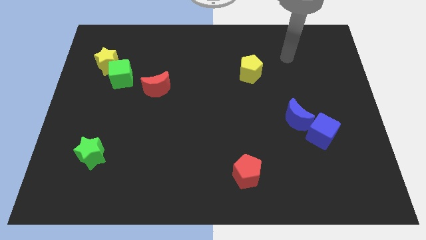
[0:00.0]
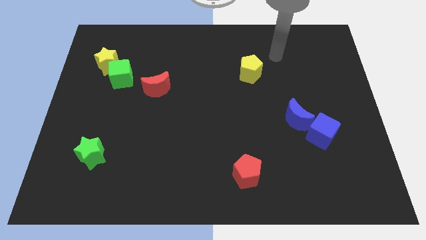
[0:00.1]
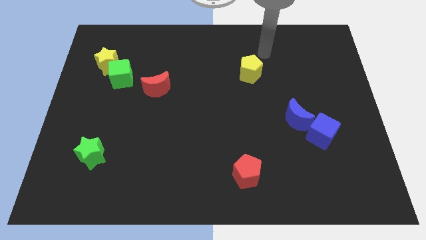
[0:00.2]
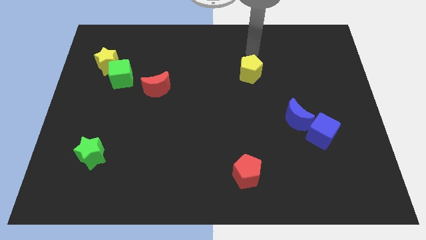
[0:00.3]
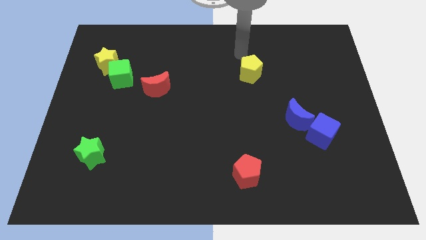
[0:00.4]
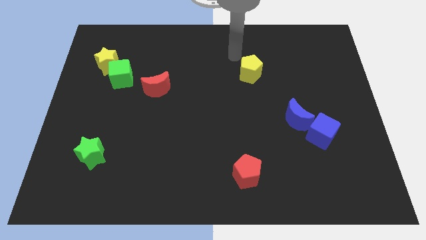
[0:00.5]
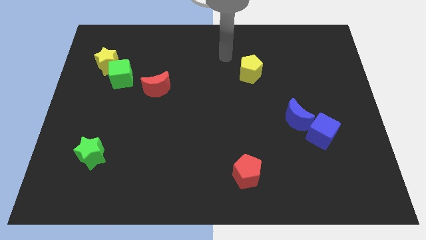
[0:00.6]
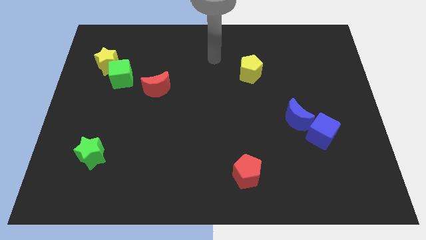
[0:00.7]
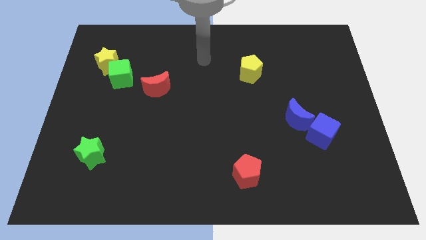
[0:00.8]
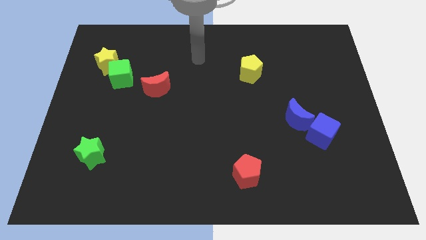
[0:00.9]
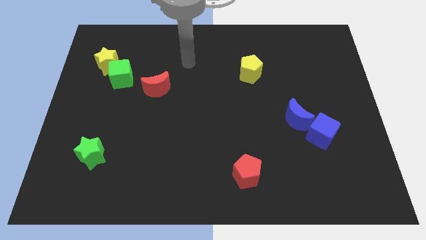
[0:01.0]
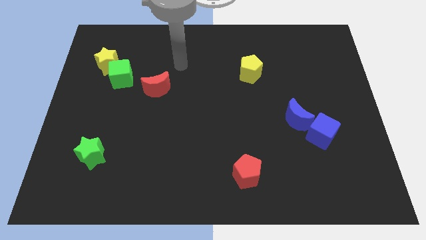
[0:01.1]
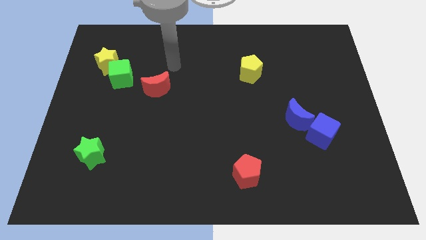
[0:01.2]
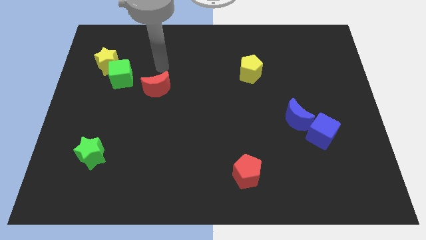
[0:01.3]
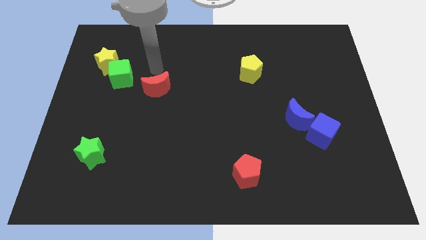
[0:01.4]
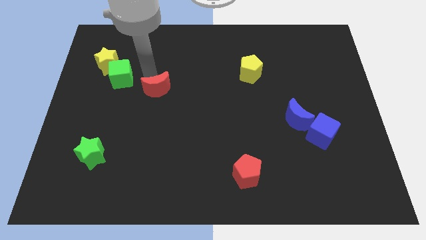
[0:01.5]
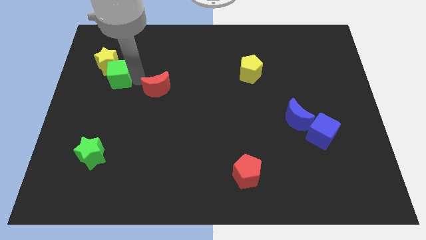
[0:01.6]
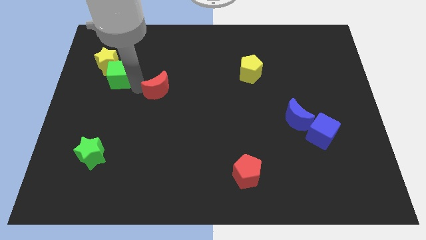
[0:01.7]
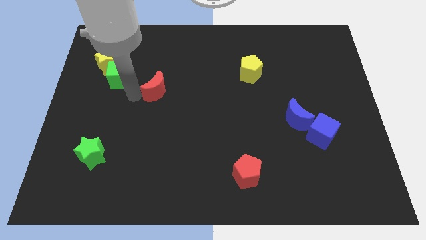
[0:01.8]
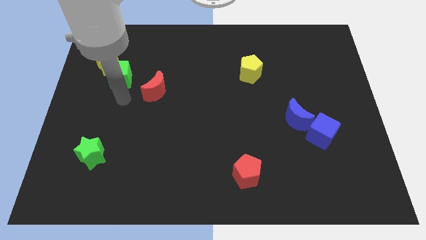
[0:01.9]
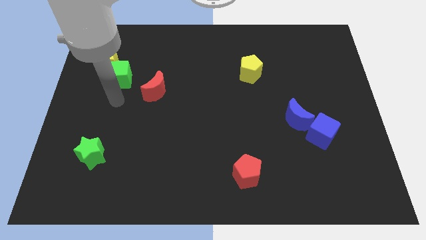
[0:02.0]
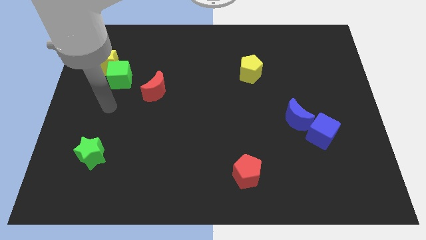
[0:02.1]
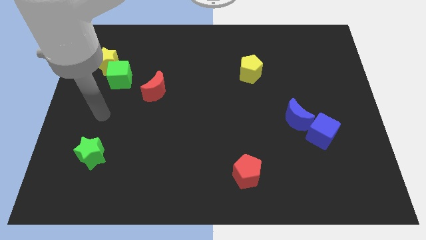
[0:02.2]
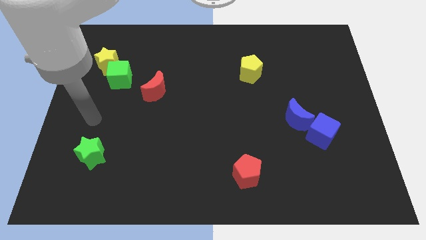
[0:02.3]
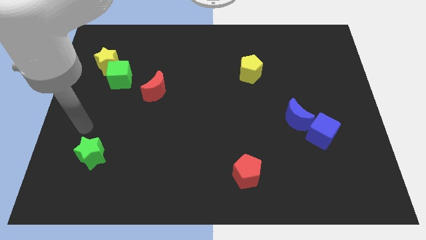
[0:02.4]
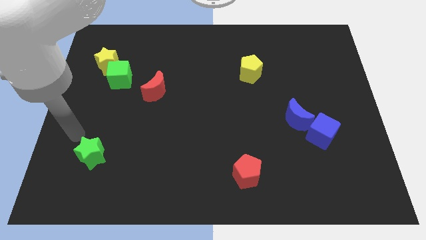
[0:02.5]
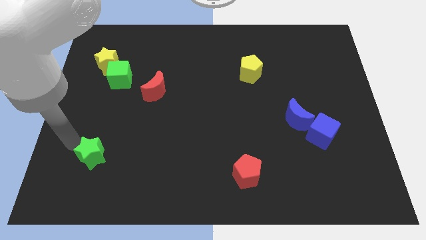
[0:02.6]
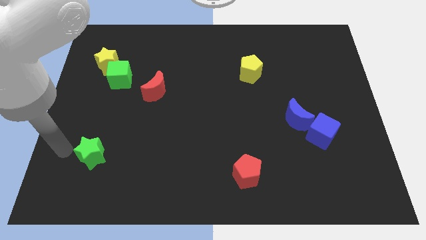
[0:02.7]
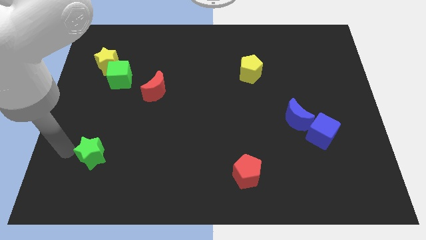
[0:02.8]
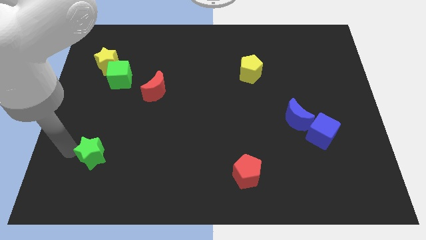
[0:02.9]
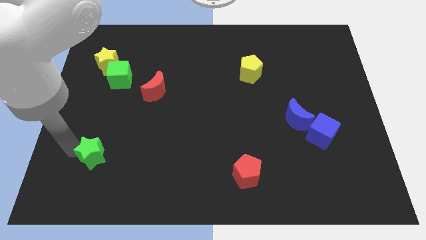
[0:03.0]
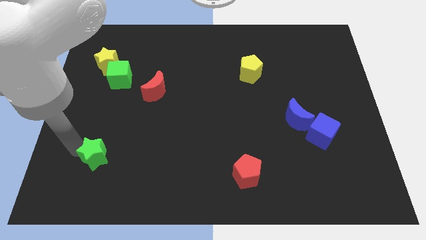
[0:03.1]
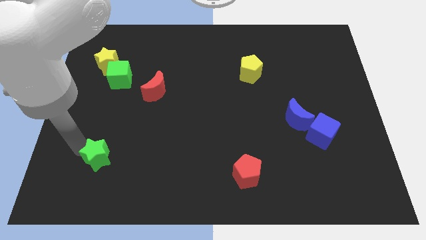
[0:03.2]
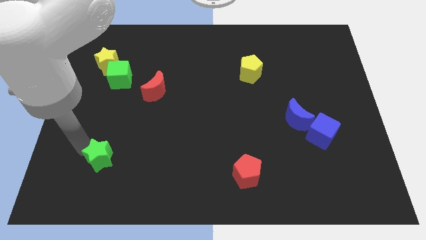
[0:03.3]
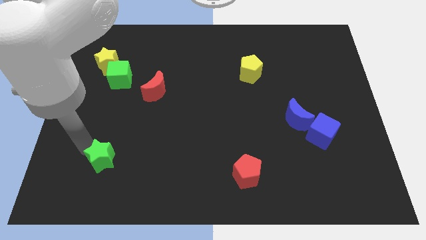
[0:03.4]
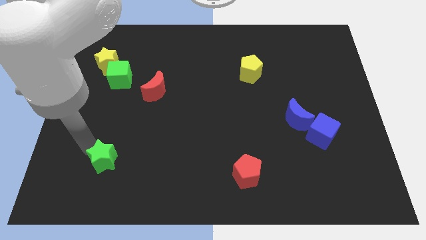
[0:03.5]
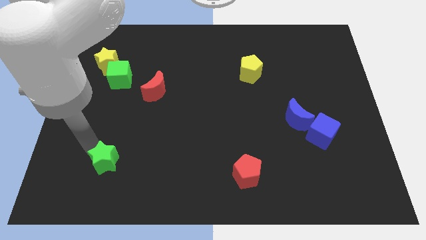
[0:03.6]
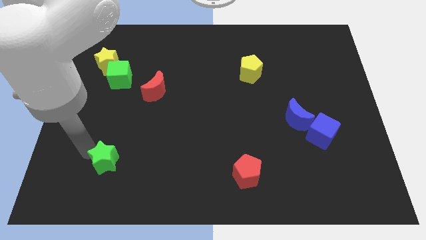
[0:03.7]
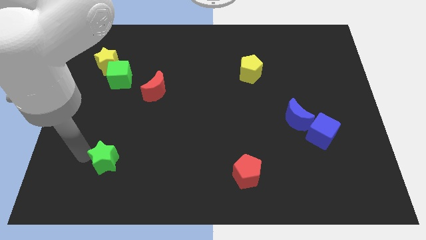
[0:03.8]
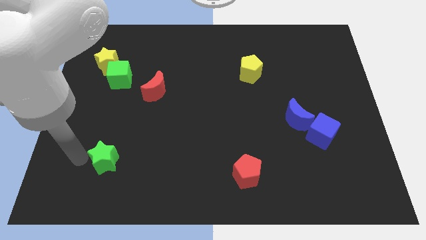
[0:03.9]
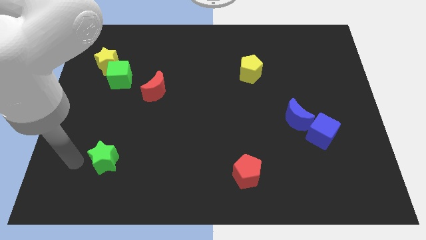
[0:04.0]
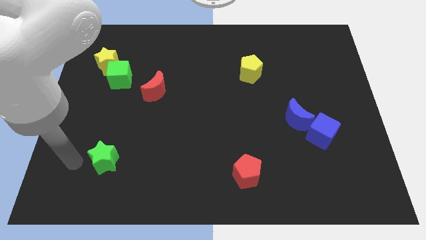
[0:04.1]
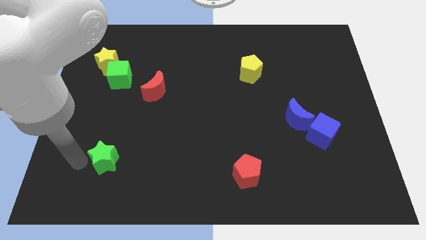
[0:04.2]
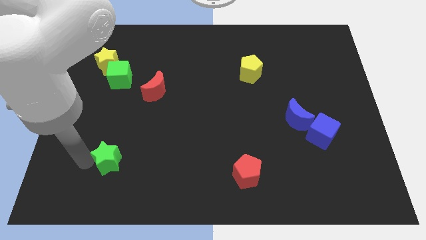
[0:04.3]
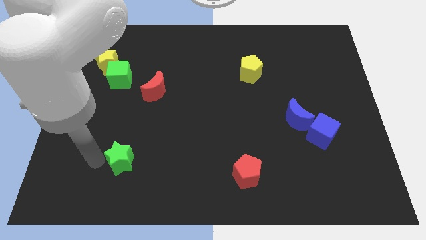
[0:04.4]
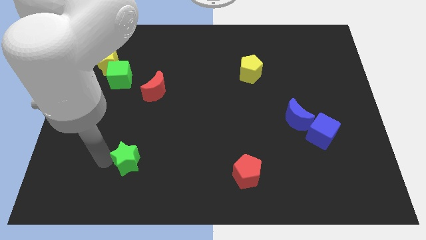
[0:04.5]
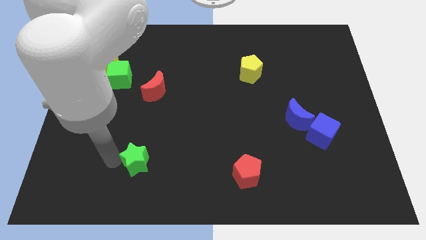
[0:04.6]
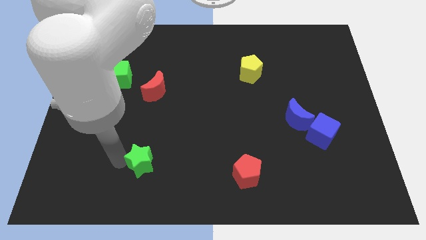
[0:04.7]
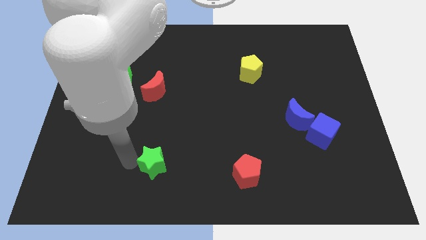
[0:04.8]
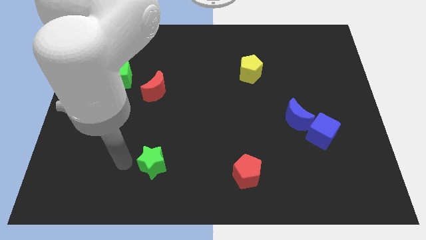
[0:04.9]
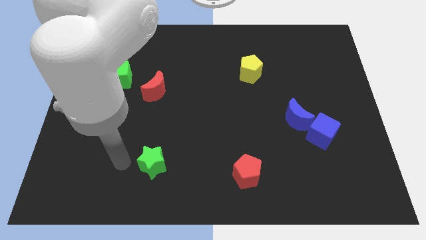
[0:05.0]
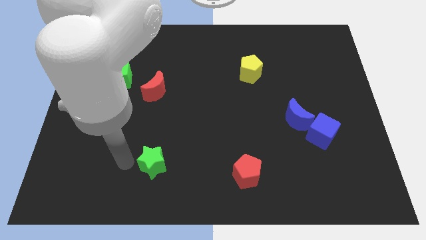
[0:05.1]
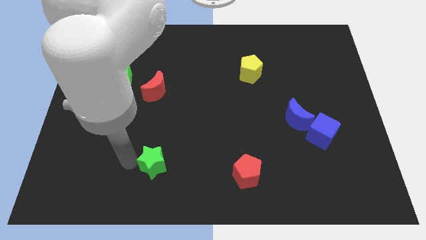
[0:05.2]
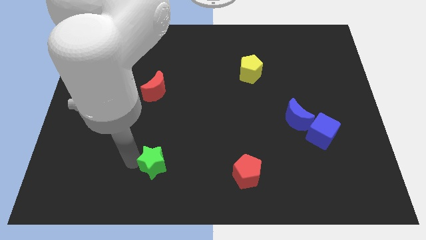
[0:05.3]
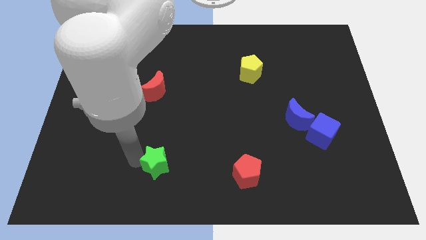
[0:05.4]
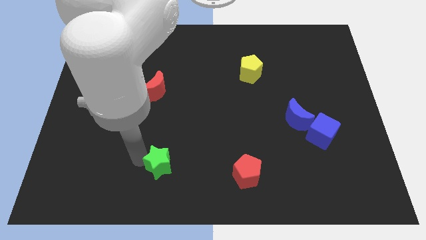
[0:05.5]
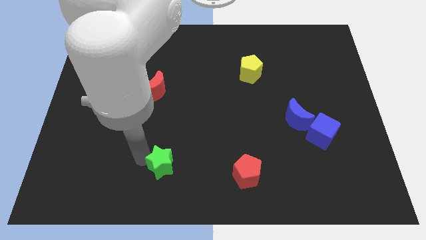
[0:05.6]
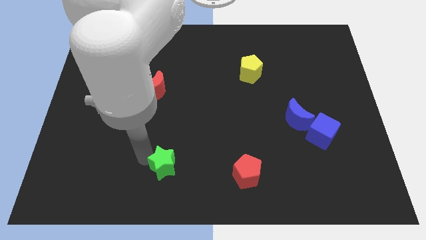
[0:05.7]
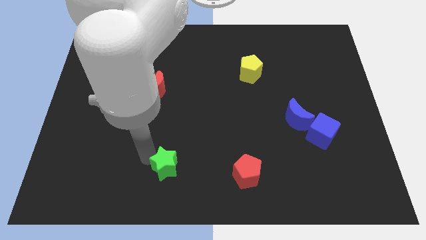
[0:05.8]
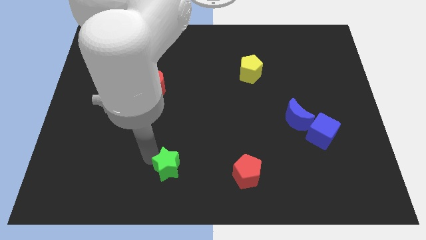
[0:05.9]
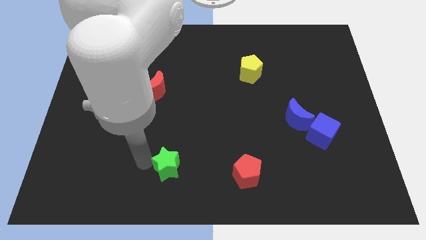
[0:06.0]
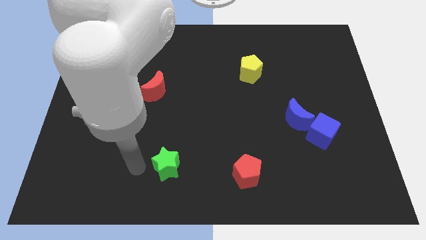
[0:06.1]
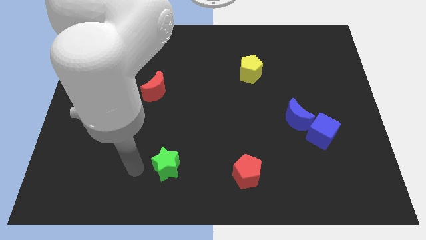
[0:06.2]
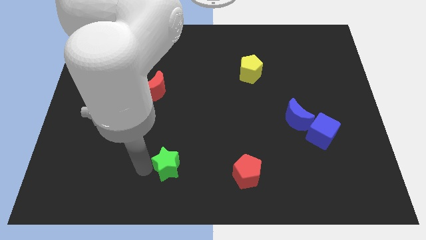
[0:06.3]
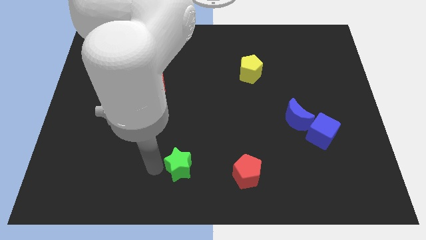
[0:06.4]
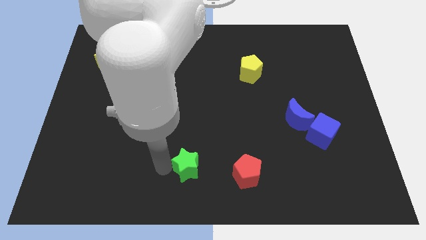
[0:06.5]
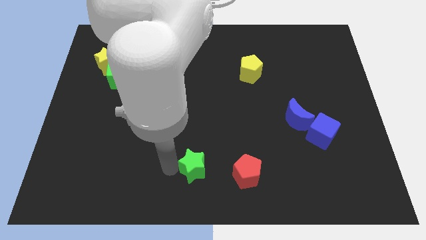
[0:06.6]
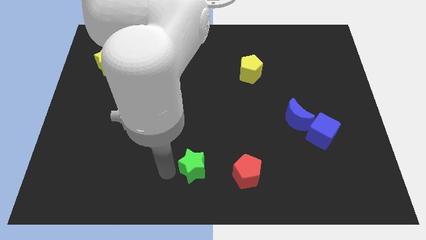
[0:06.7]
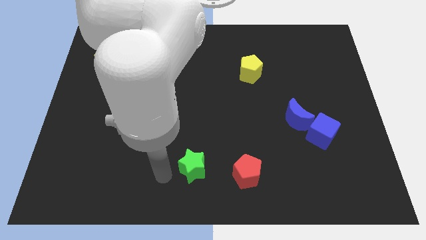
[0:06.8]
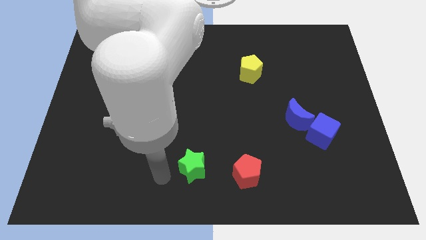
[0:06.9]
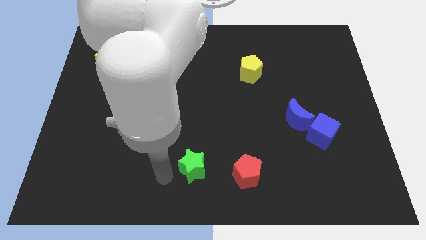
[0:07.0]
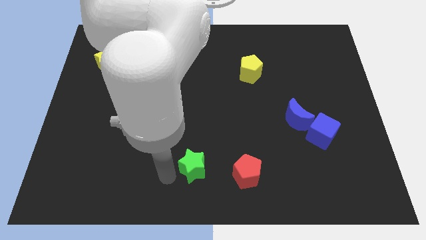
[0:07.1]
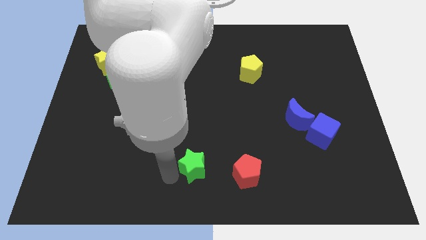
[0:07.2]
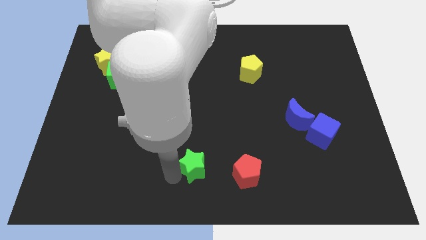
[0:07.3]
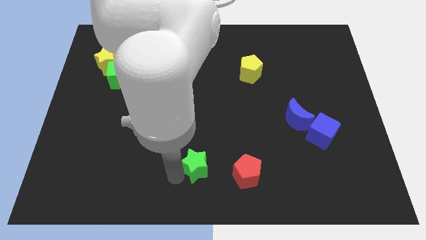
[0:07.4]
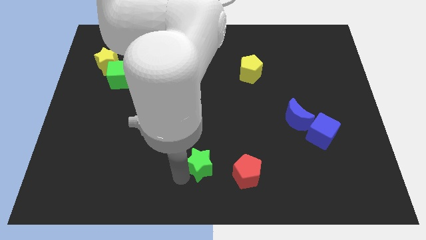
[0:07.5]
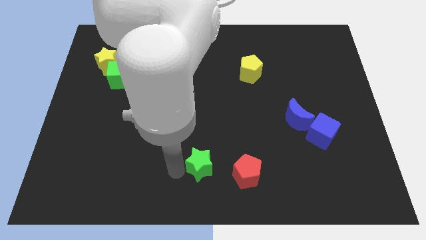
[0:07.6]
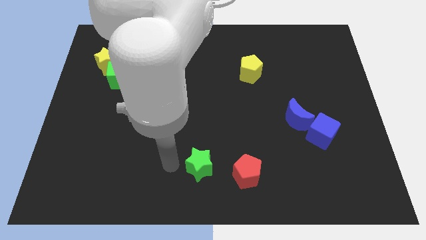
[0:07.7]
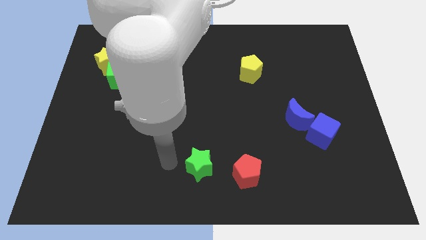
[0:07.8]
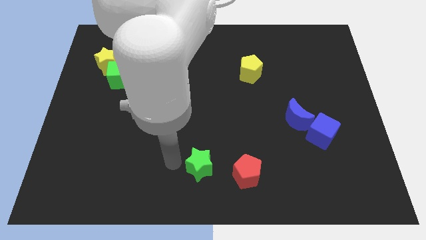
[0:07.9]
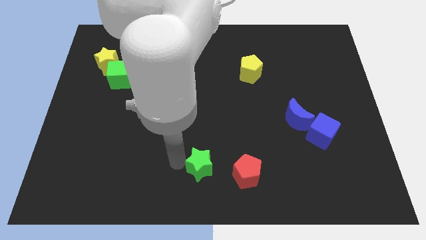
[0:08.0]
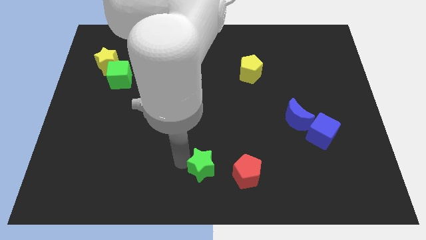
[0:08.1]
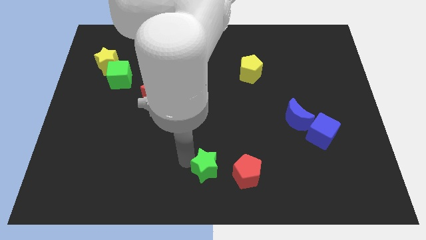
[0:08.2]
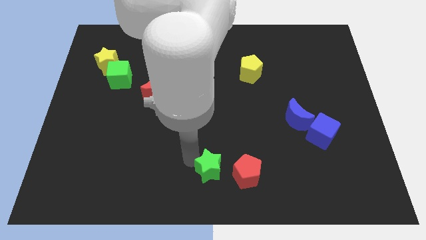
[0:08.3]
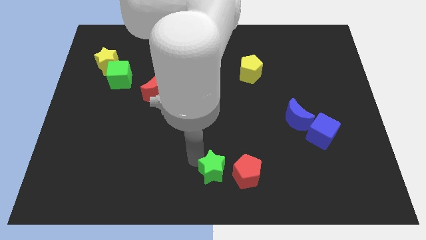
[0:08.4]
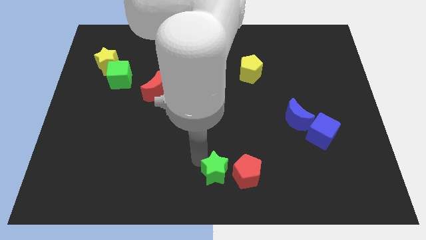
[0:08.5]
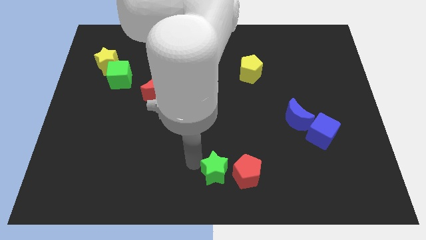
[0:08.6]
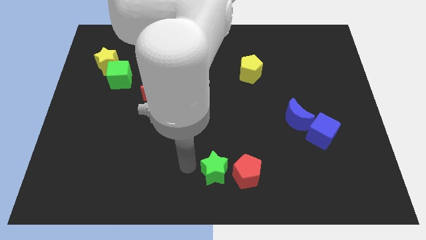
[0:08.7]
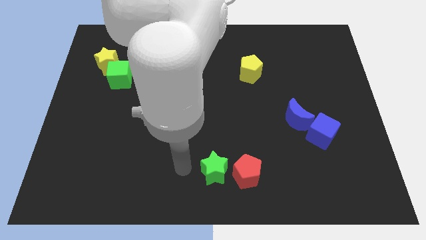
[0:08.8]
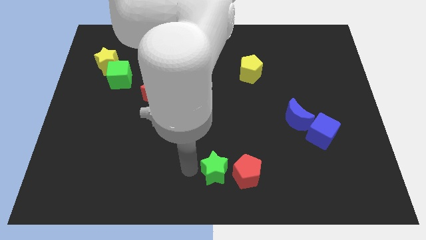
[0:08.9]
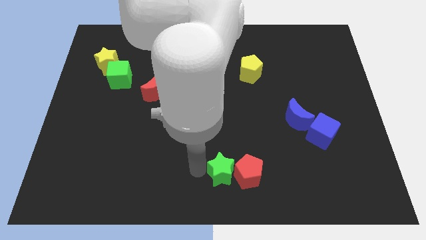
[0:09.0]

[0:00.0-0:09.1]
move the green star next to the red pentagon
